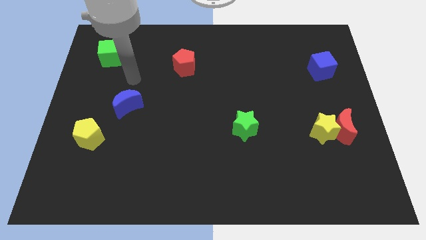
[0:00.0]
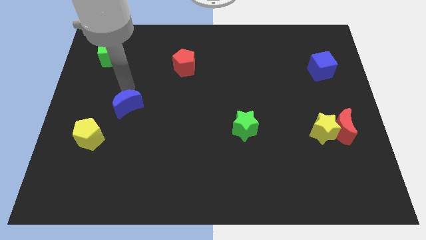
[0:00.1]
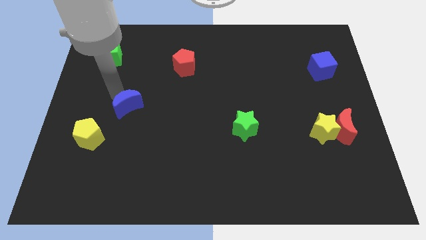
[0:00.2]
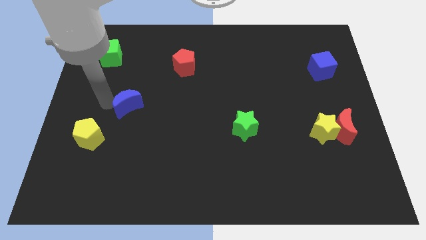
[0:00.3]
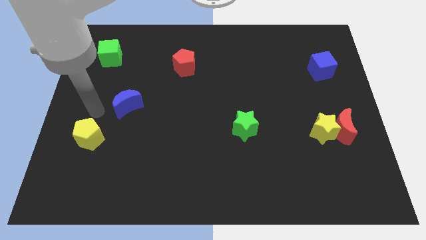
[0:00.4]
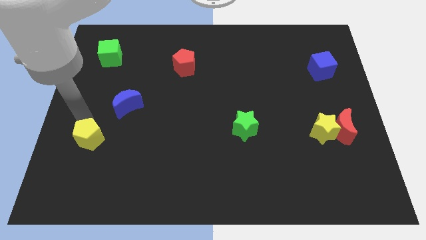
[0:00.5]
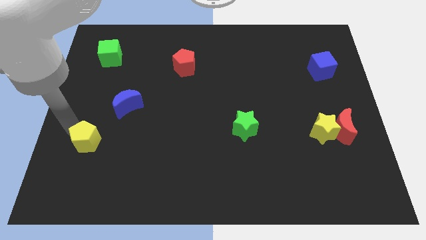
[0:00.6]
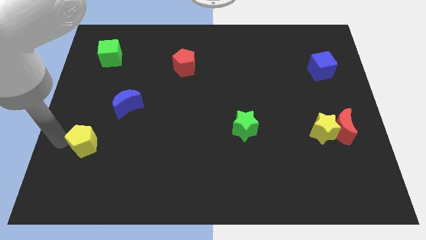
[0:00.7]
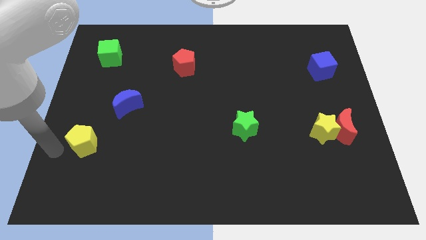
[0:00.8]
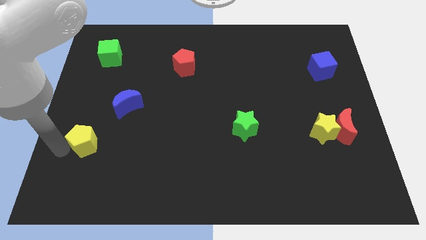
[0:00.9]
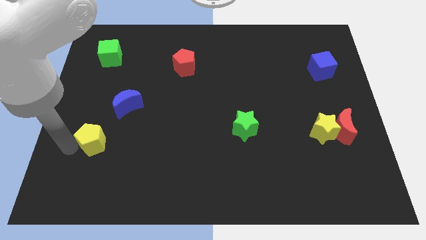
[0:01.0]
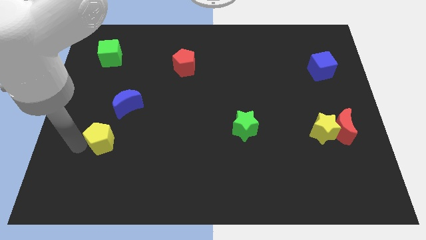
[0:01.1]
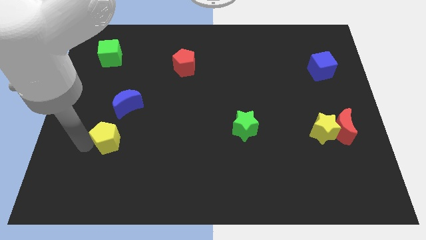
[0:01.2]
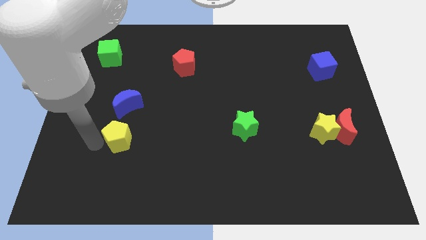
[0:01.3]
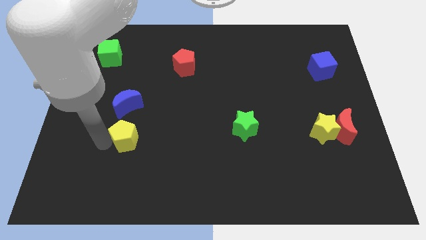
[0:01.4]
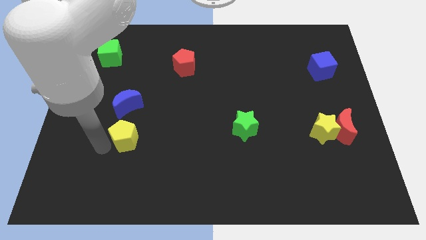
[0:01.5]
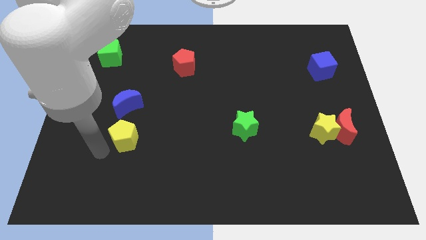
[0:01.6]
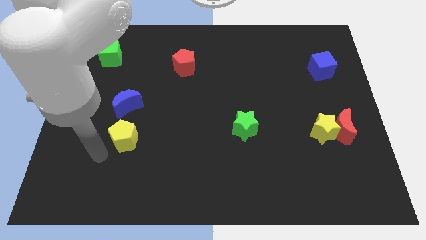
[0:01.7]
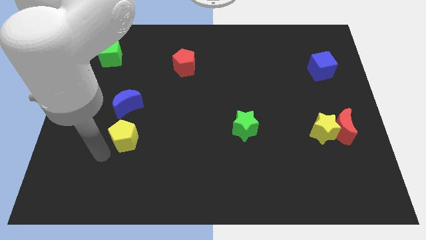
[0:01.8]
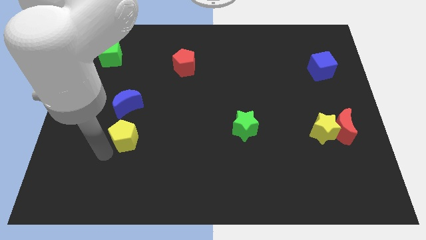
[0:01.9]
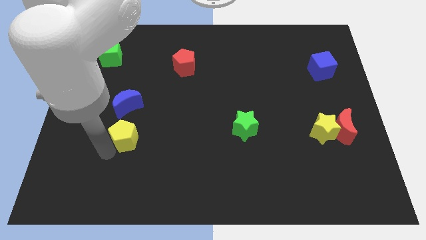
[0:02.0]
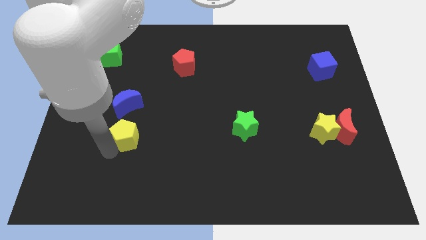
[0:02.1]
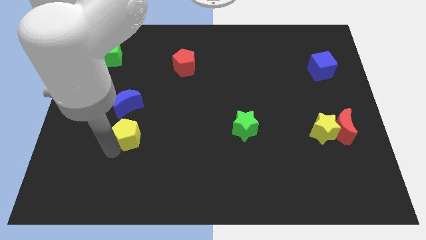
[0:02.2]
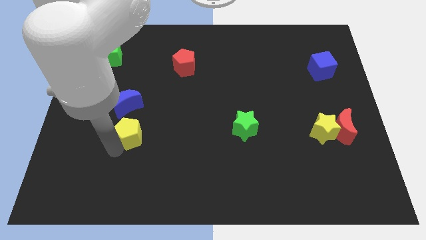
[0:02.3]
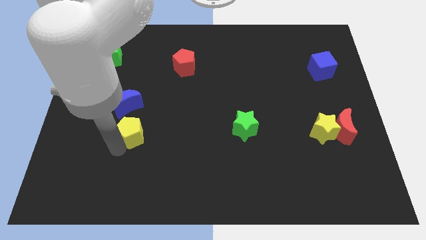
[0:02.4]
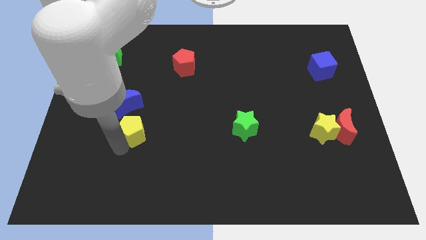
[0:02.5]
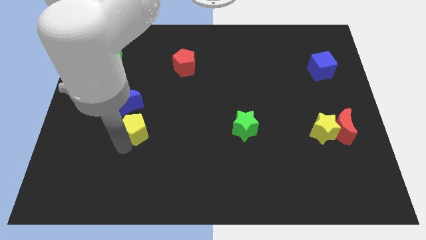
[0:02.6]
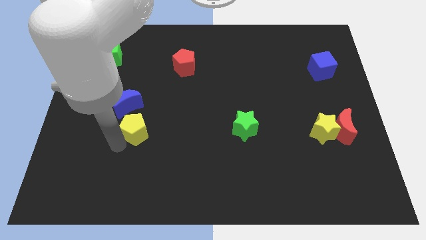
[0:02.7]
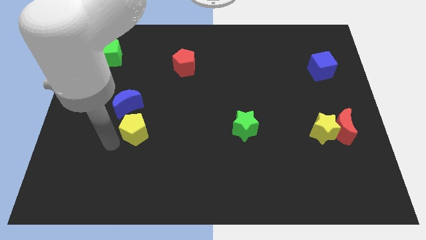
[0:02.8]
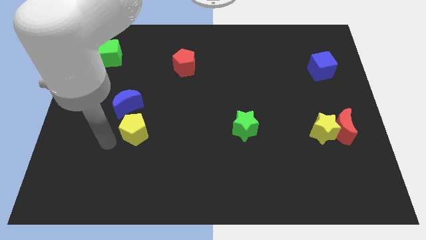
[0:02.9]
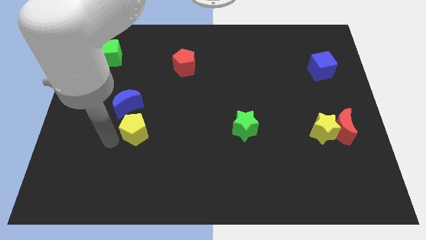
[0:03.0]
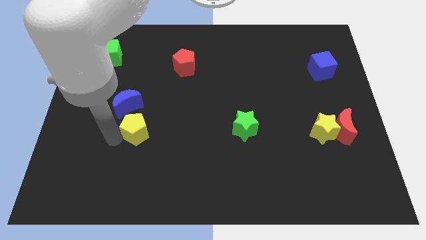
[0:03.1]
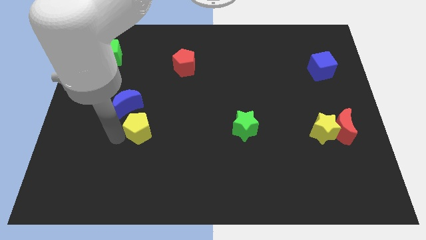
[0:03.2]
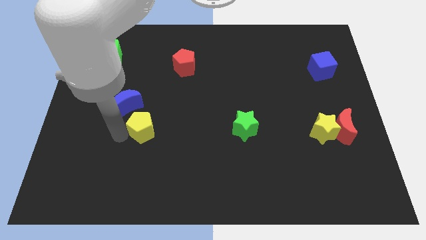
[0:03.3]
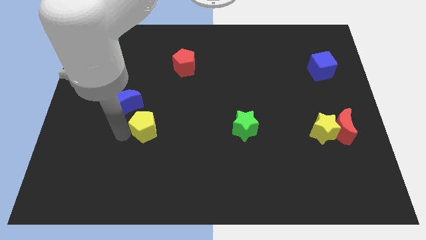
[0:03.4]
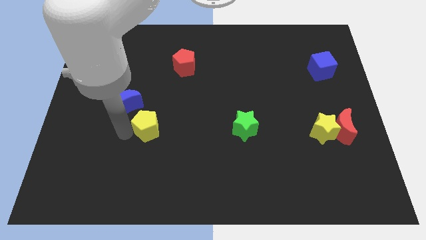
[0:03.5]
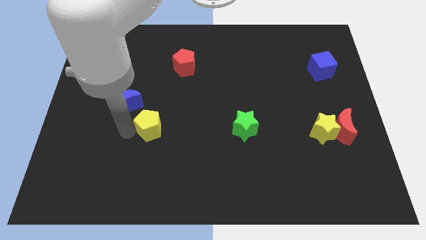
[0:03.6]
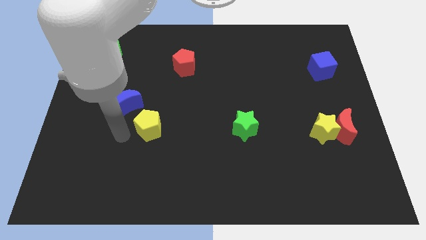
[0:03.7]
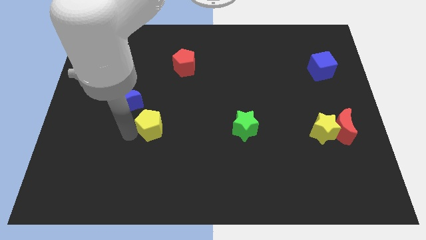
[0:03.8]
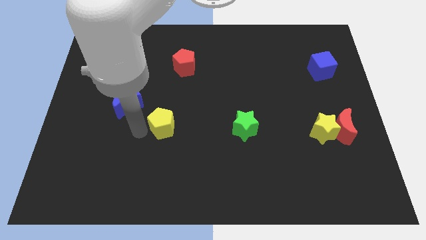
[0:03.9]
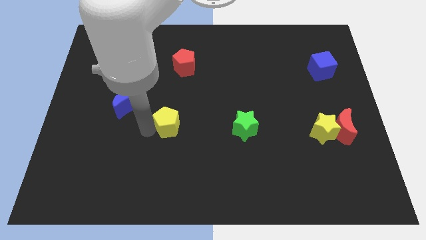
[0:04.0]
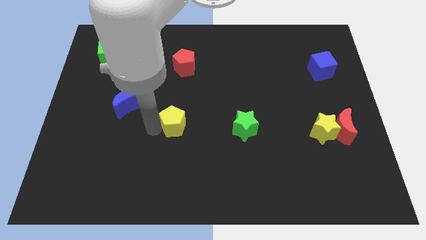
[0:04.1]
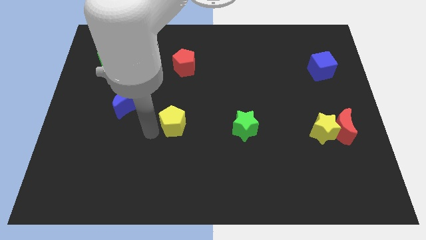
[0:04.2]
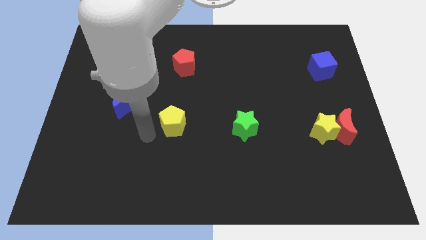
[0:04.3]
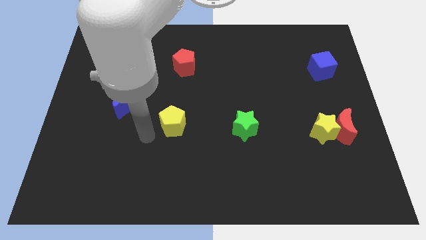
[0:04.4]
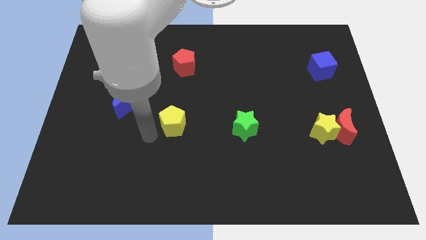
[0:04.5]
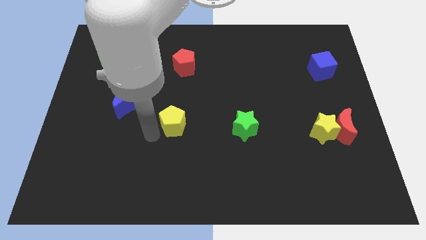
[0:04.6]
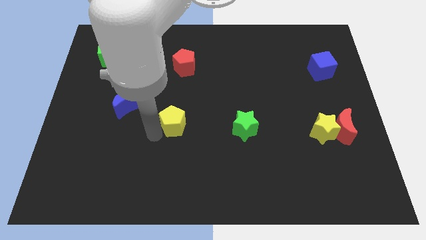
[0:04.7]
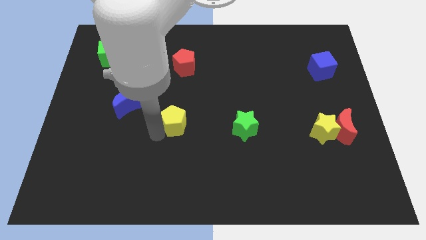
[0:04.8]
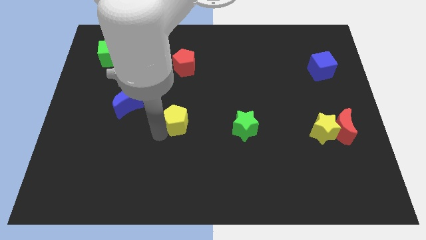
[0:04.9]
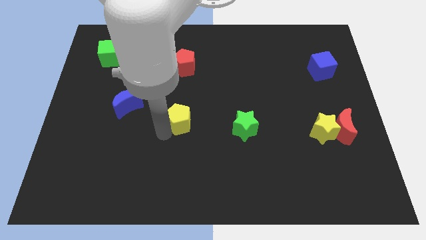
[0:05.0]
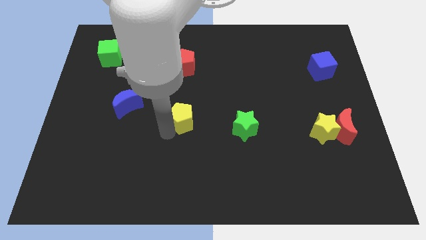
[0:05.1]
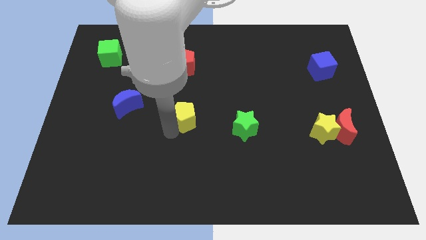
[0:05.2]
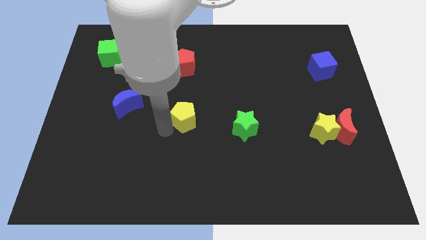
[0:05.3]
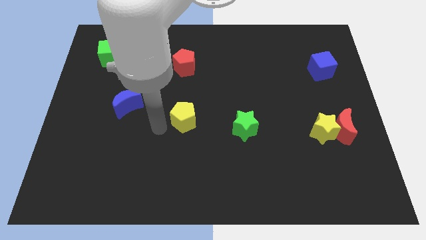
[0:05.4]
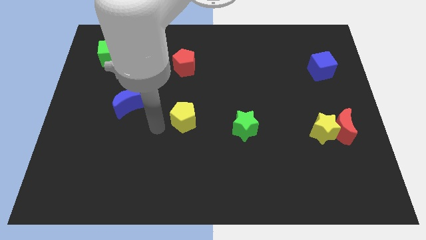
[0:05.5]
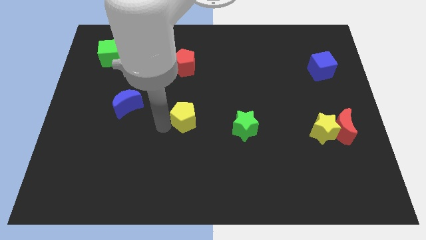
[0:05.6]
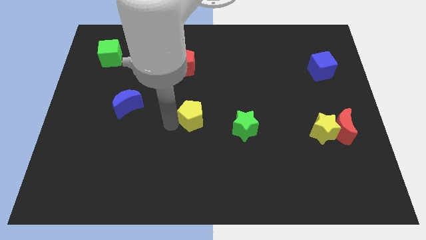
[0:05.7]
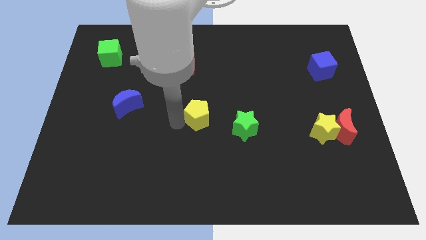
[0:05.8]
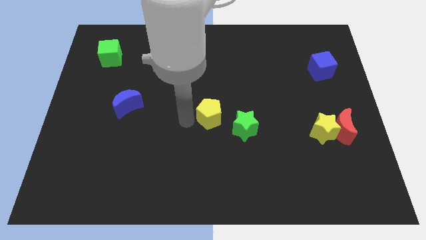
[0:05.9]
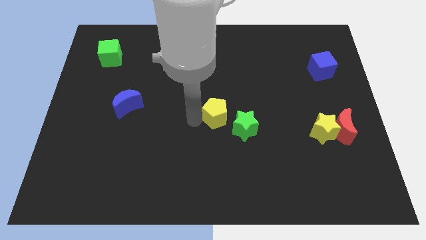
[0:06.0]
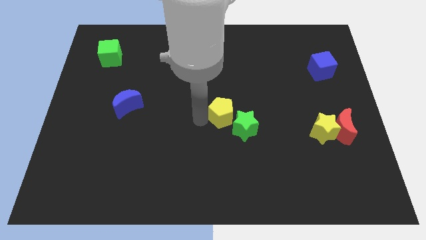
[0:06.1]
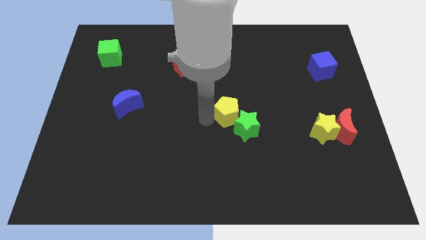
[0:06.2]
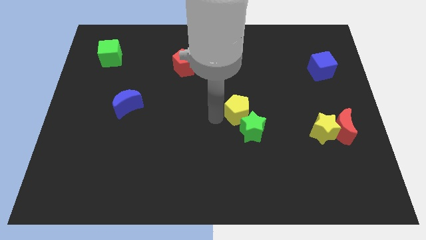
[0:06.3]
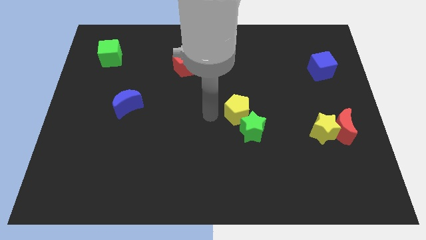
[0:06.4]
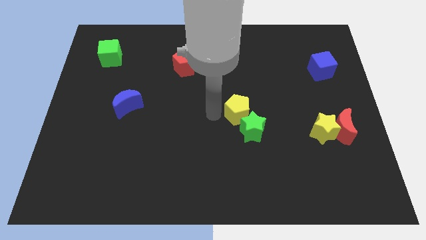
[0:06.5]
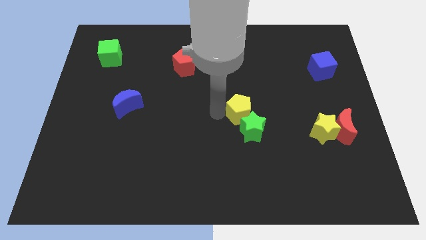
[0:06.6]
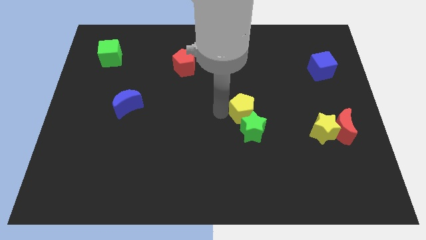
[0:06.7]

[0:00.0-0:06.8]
push the yellow pentagon diagonally up and to the right of the green star

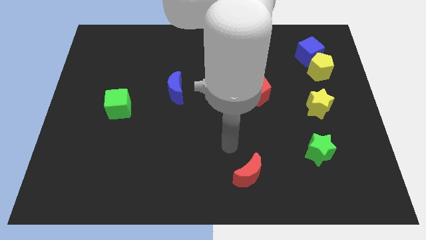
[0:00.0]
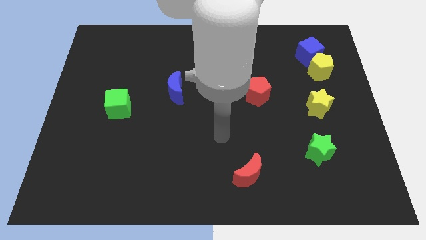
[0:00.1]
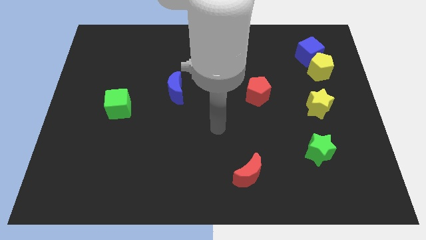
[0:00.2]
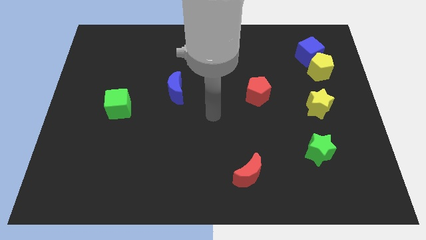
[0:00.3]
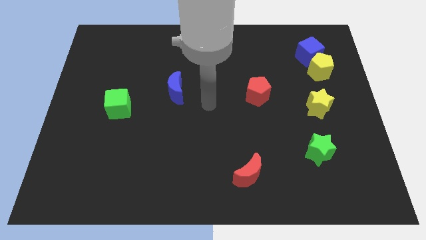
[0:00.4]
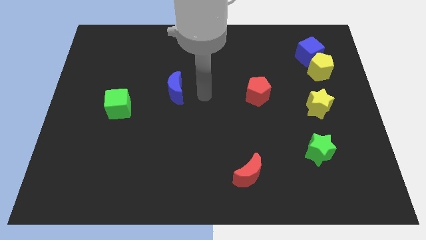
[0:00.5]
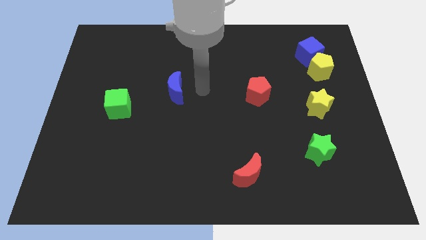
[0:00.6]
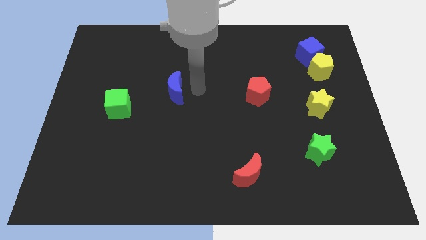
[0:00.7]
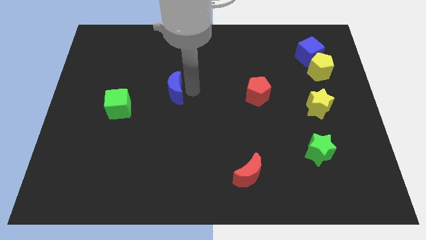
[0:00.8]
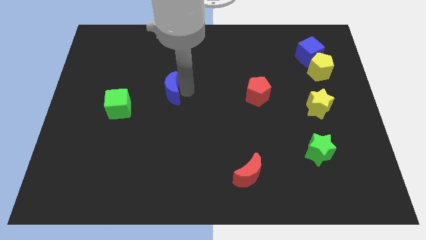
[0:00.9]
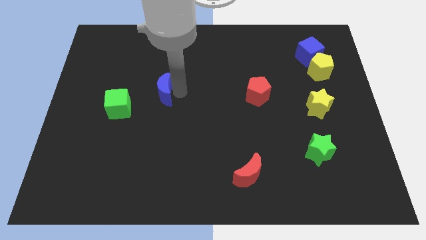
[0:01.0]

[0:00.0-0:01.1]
slide the blue moon to the top right side of the green cube
